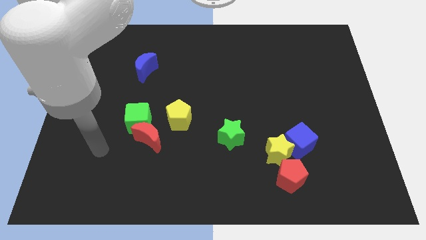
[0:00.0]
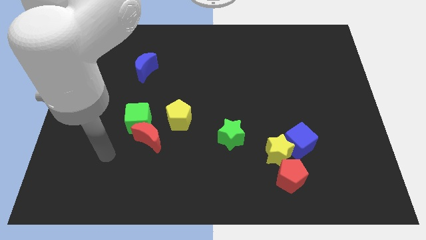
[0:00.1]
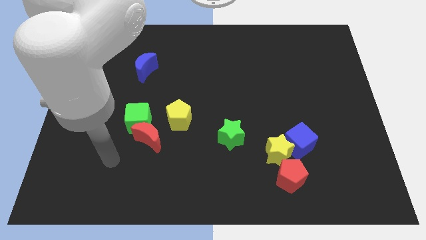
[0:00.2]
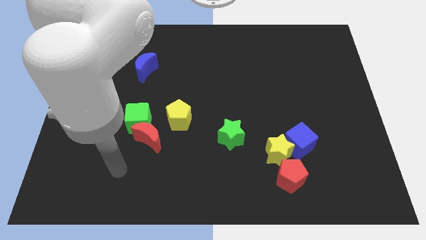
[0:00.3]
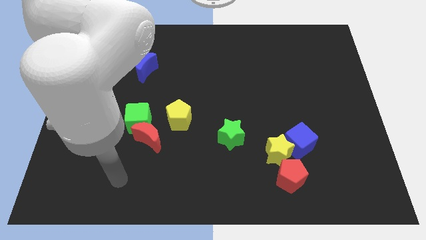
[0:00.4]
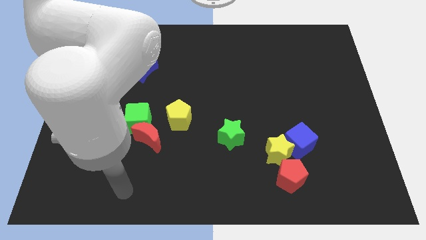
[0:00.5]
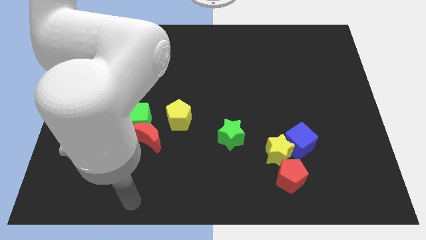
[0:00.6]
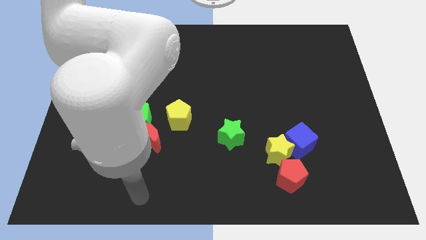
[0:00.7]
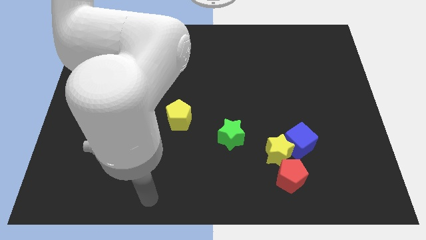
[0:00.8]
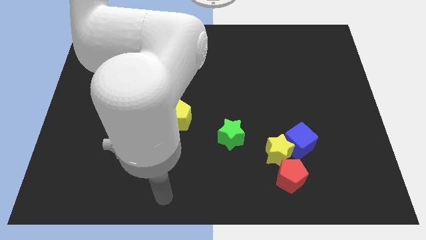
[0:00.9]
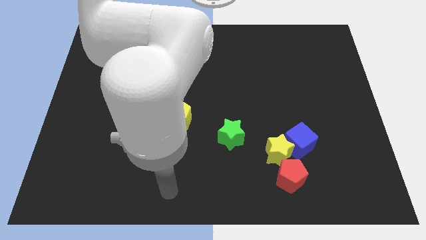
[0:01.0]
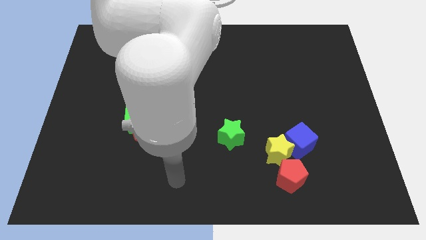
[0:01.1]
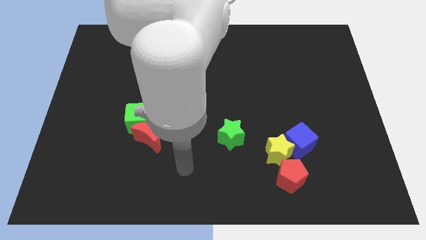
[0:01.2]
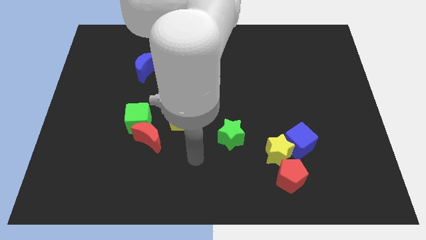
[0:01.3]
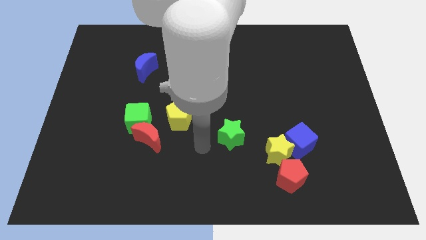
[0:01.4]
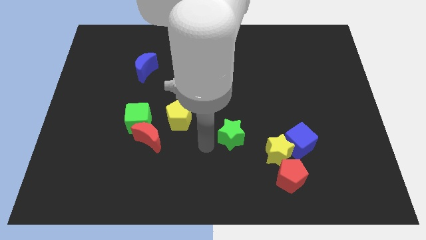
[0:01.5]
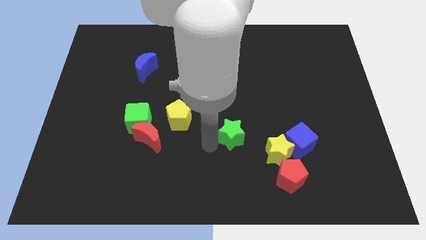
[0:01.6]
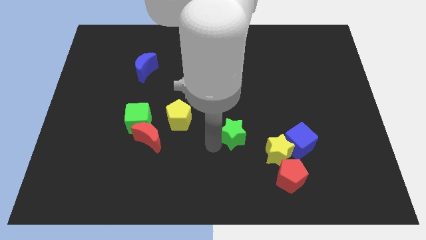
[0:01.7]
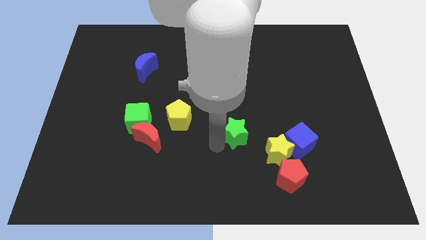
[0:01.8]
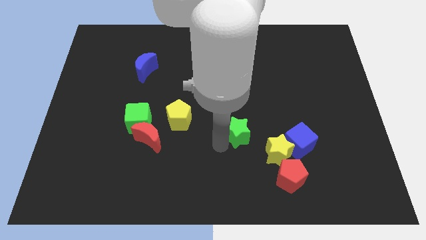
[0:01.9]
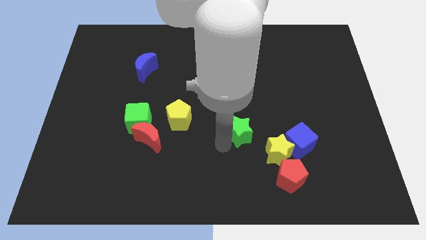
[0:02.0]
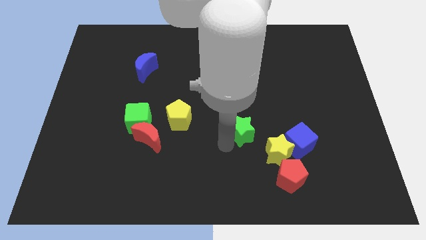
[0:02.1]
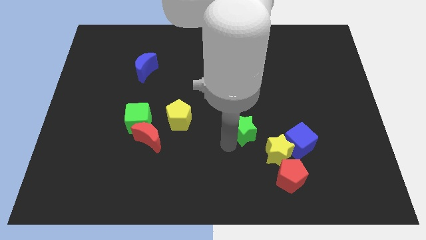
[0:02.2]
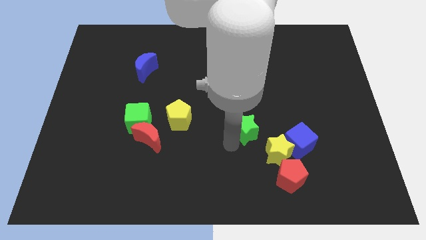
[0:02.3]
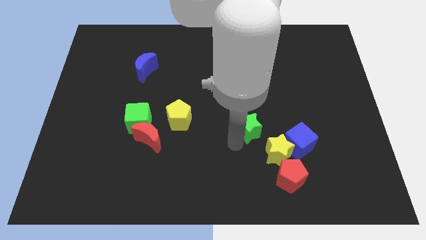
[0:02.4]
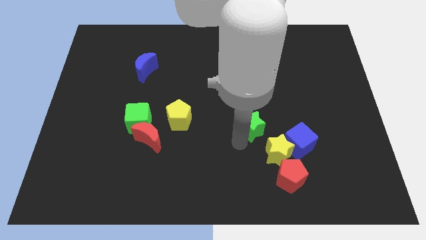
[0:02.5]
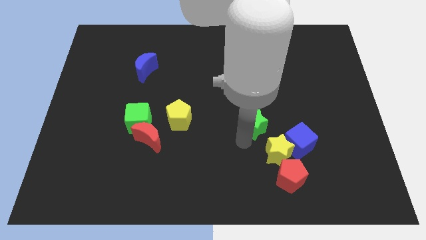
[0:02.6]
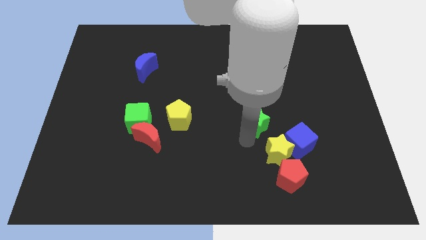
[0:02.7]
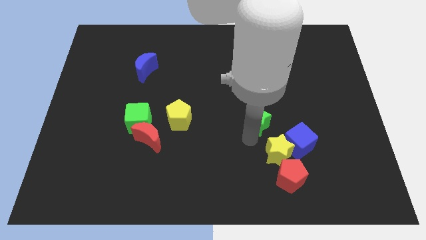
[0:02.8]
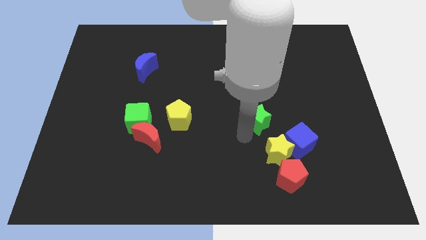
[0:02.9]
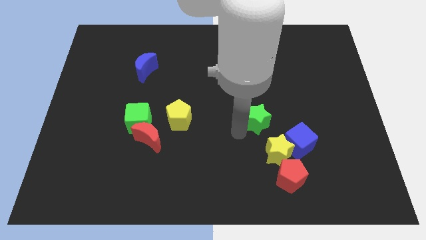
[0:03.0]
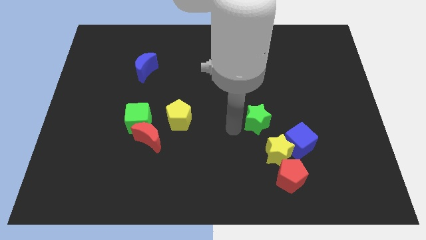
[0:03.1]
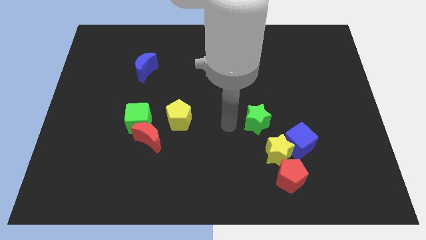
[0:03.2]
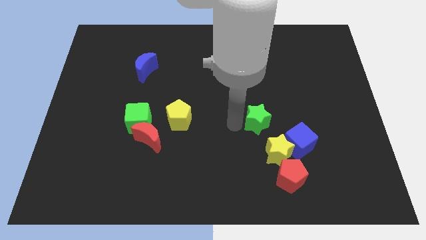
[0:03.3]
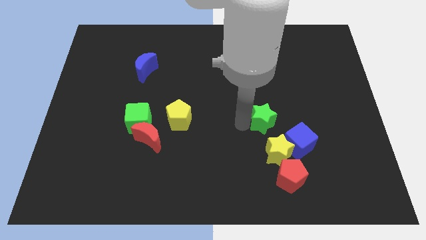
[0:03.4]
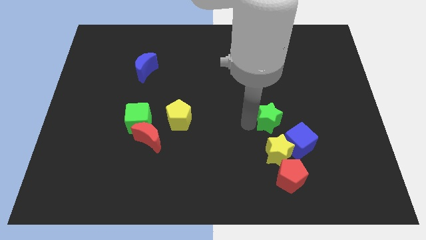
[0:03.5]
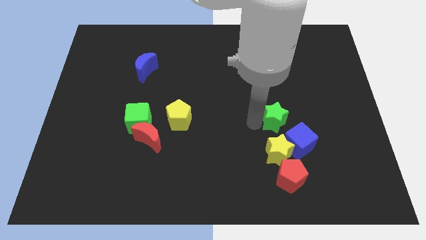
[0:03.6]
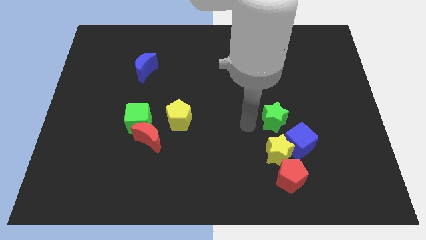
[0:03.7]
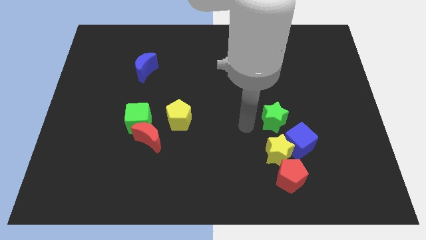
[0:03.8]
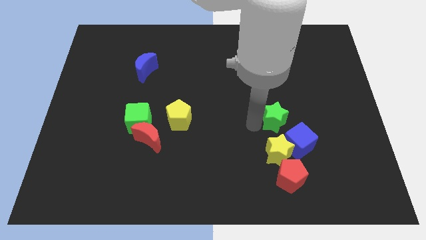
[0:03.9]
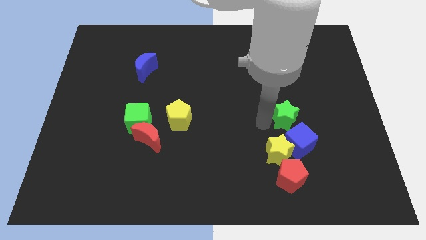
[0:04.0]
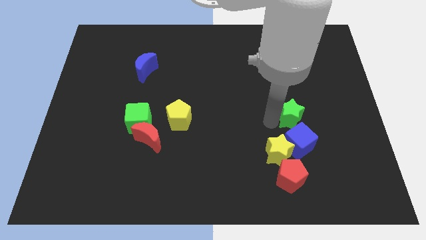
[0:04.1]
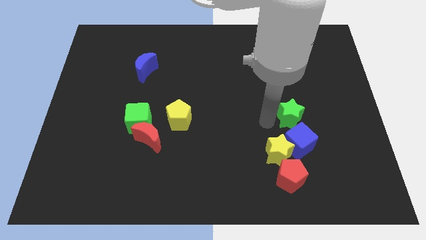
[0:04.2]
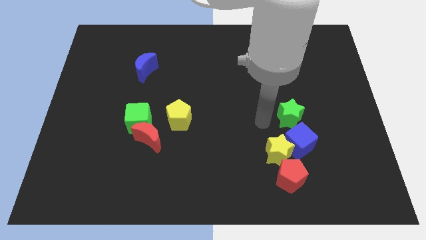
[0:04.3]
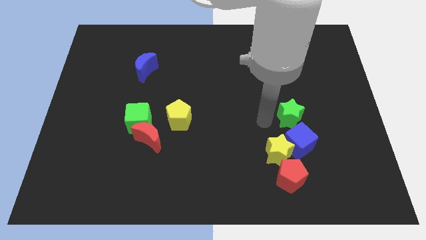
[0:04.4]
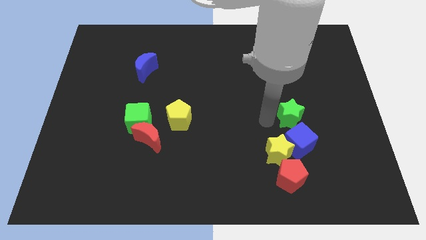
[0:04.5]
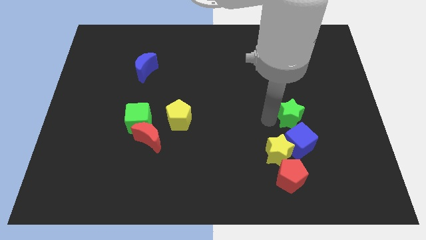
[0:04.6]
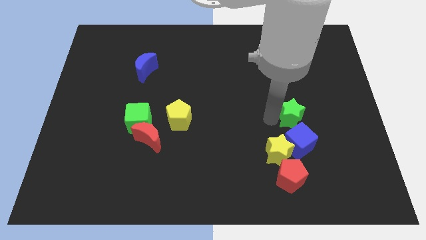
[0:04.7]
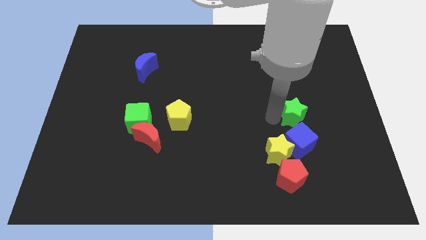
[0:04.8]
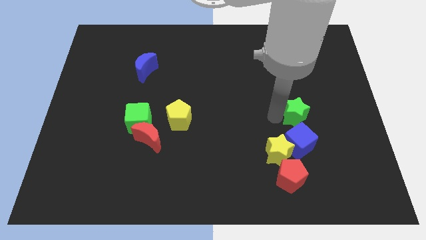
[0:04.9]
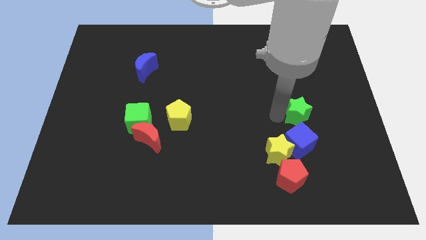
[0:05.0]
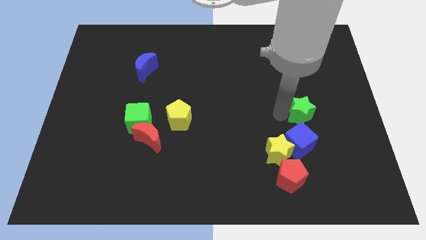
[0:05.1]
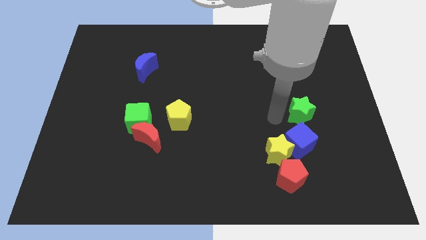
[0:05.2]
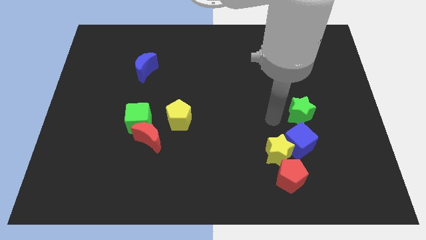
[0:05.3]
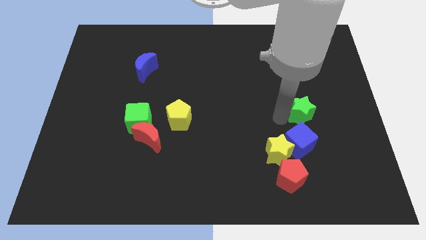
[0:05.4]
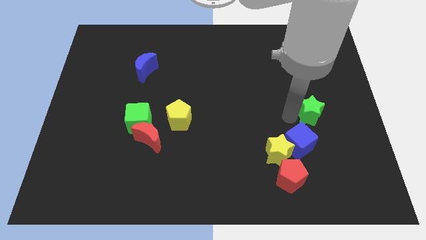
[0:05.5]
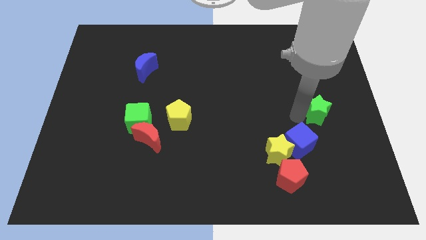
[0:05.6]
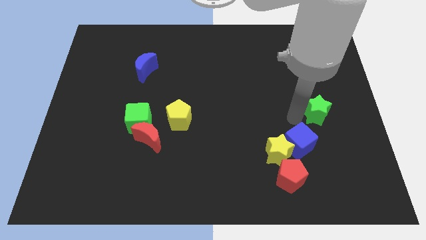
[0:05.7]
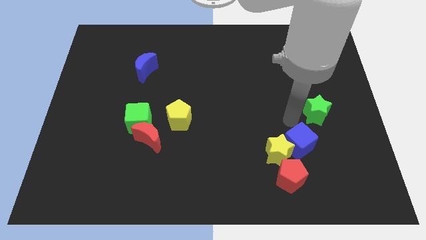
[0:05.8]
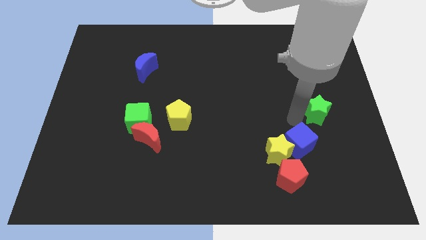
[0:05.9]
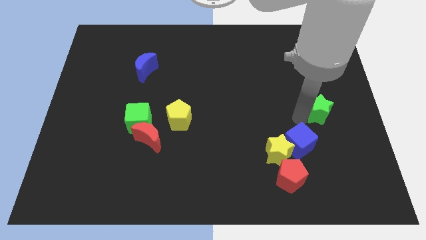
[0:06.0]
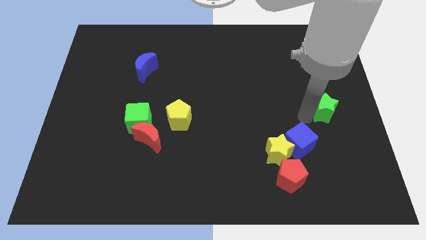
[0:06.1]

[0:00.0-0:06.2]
slide the green star to the center right
